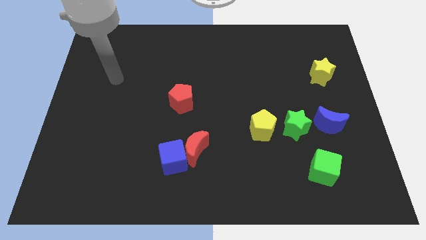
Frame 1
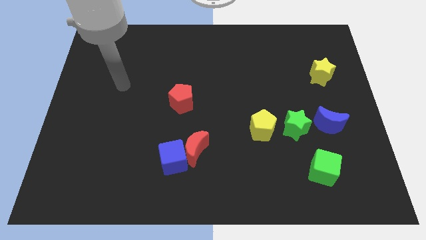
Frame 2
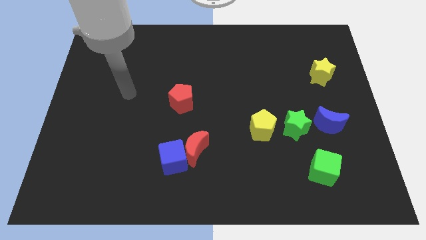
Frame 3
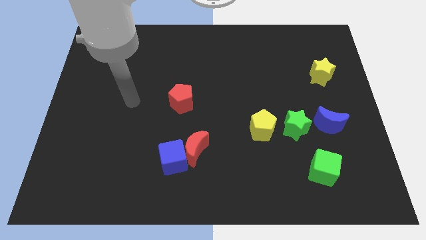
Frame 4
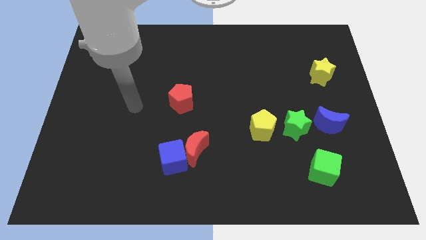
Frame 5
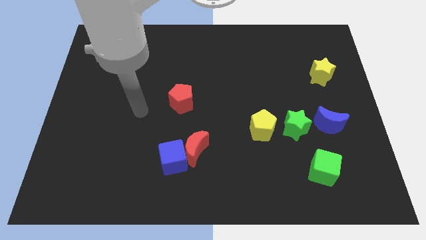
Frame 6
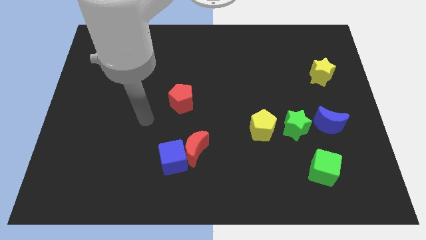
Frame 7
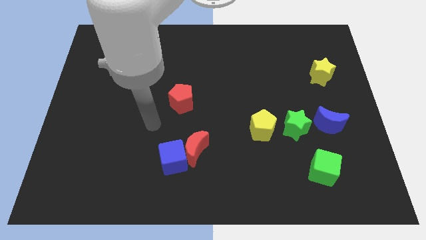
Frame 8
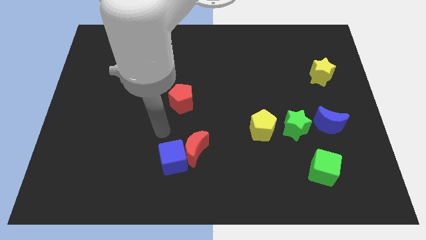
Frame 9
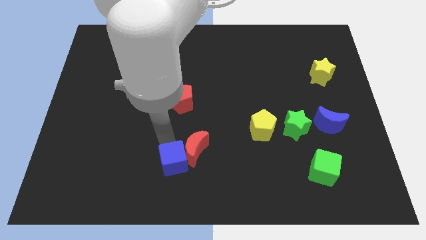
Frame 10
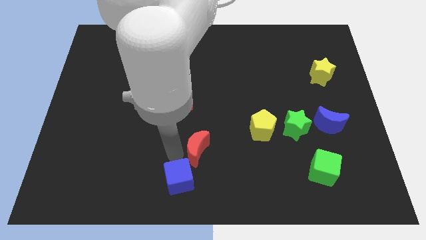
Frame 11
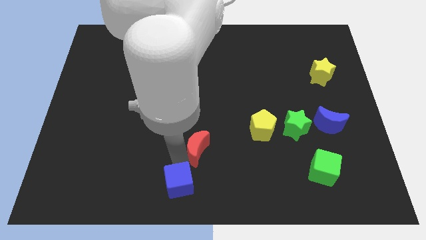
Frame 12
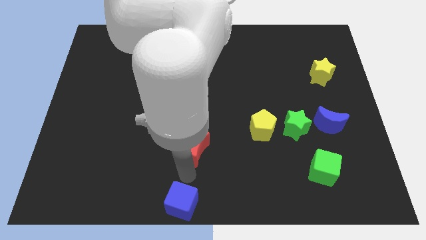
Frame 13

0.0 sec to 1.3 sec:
separate the red moon from the blue cube

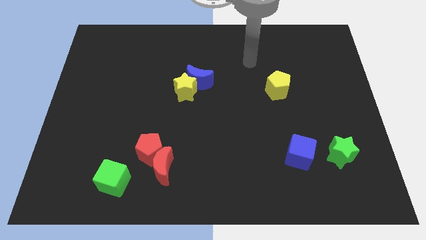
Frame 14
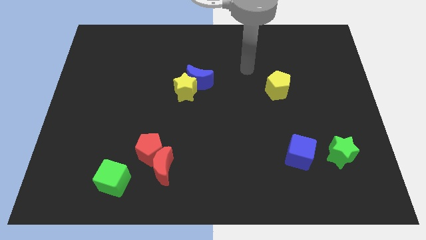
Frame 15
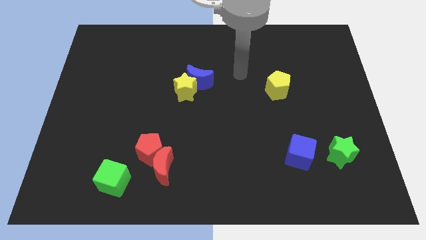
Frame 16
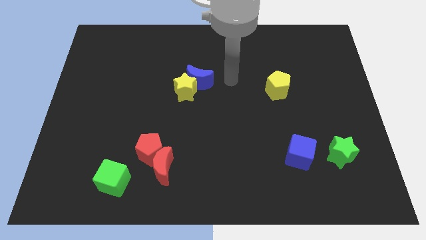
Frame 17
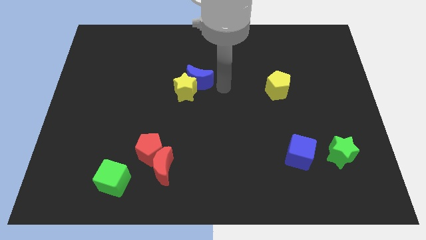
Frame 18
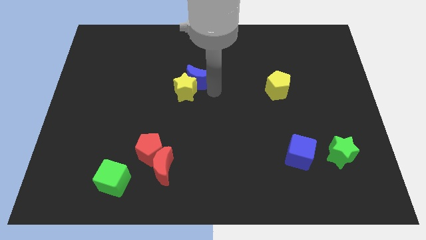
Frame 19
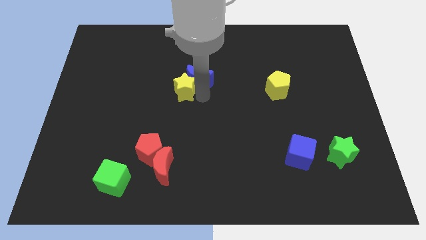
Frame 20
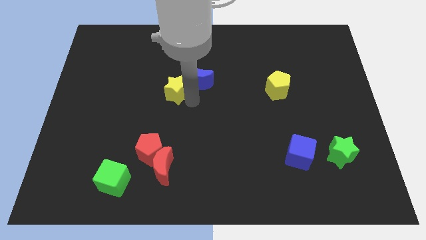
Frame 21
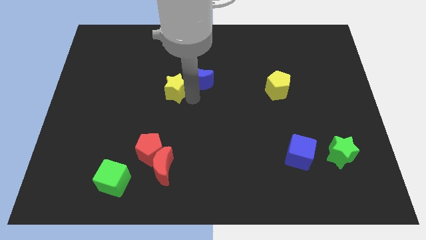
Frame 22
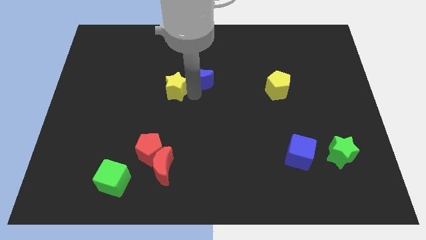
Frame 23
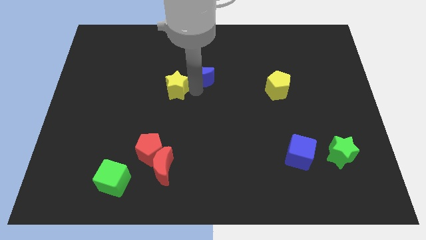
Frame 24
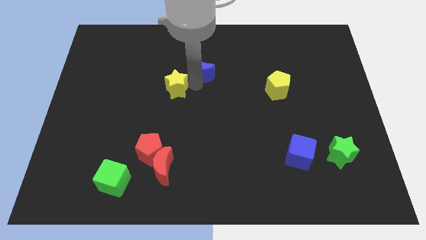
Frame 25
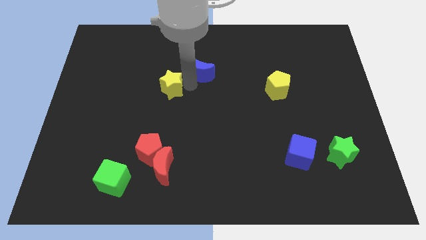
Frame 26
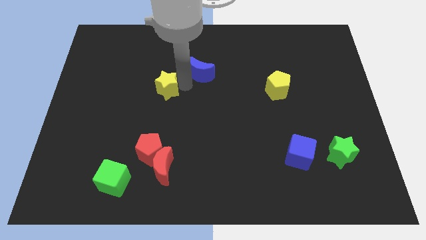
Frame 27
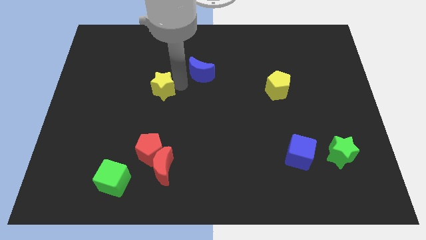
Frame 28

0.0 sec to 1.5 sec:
move the blue moon away from the yellow star

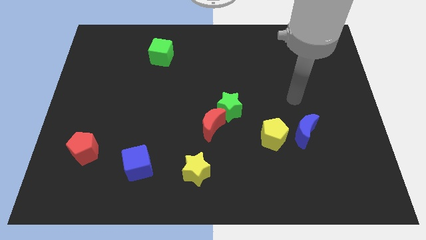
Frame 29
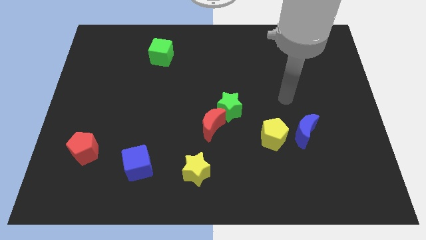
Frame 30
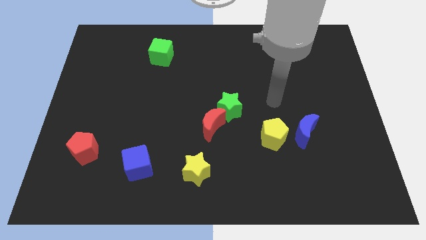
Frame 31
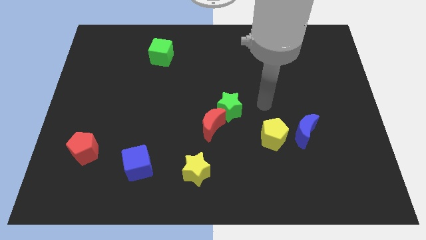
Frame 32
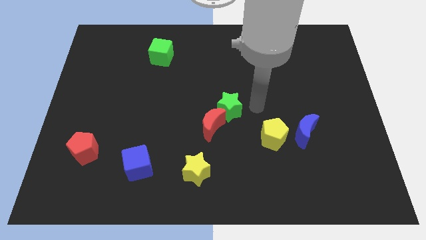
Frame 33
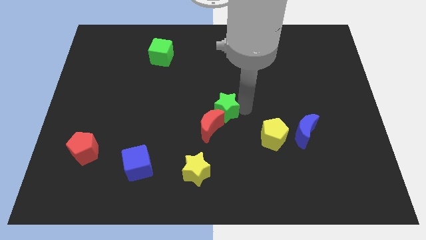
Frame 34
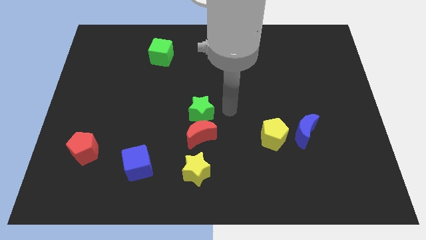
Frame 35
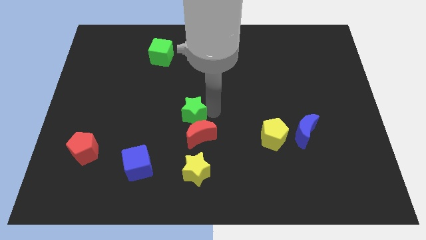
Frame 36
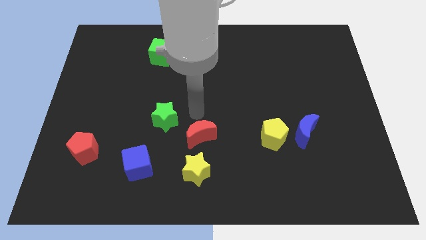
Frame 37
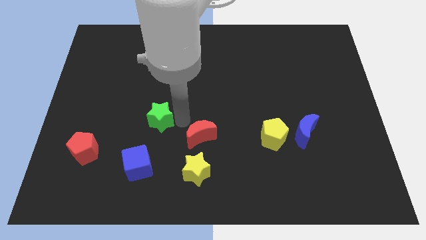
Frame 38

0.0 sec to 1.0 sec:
pull the red moon apart from the green star

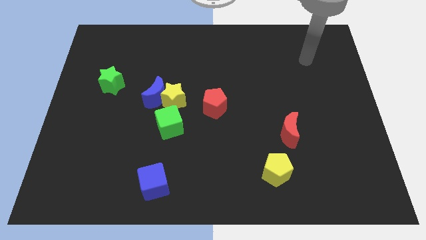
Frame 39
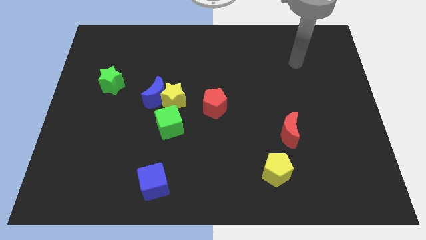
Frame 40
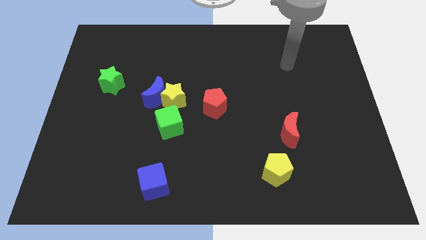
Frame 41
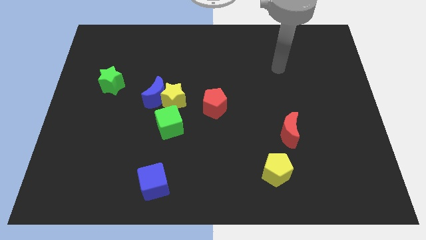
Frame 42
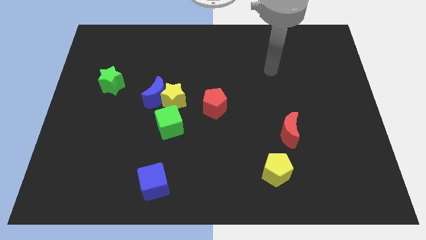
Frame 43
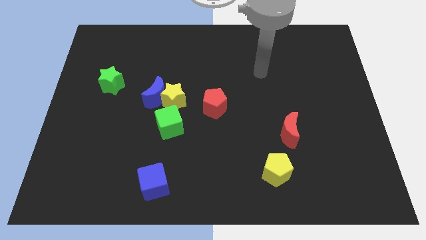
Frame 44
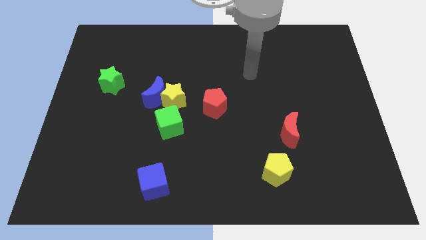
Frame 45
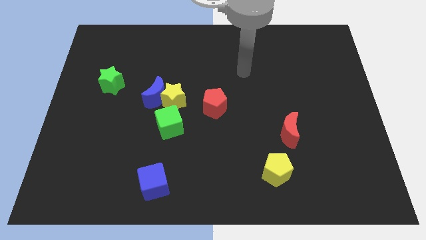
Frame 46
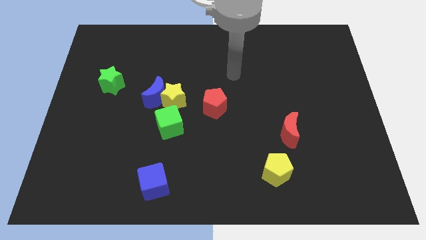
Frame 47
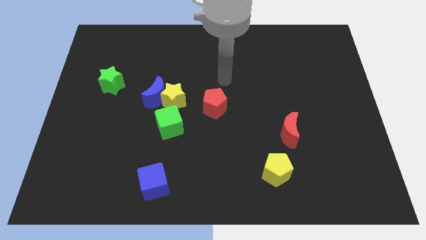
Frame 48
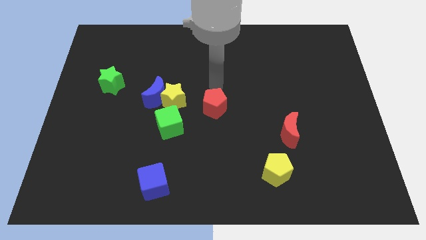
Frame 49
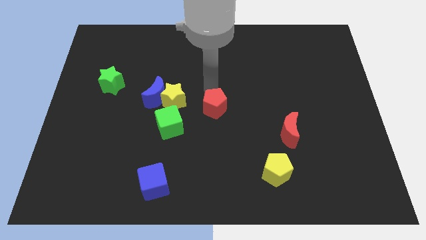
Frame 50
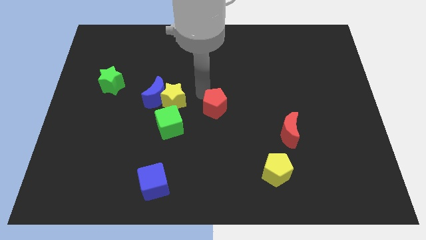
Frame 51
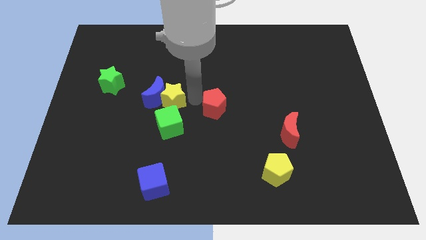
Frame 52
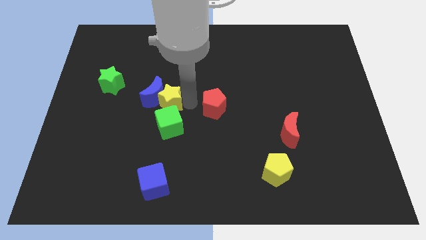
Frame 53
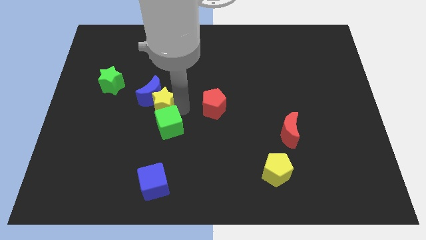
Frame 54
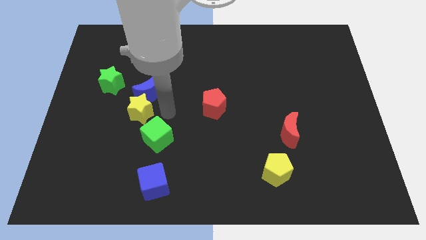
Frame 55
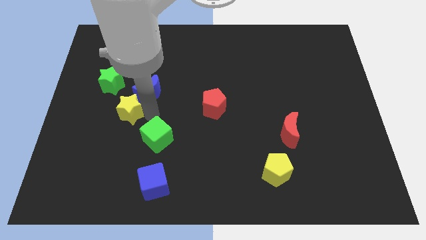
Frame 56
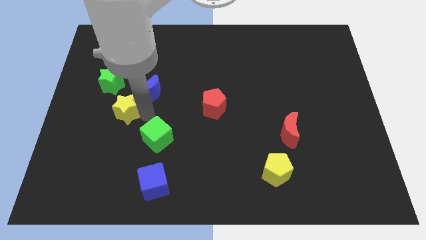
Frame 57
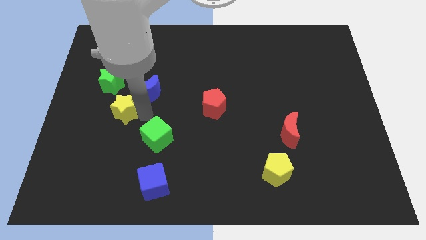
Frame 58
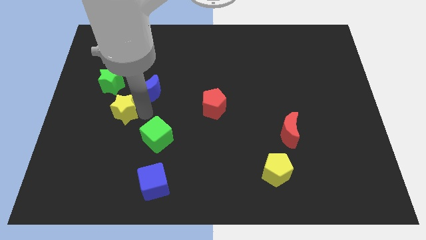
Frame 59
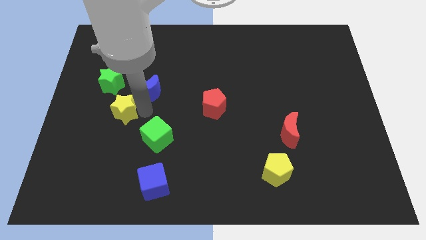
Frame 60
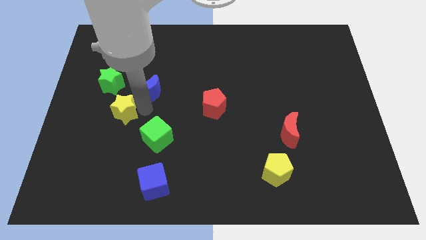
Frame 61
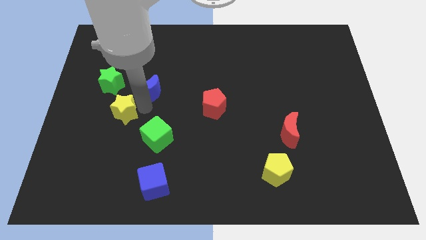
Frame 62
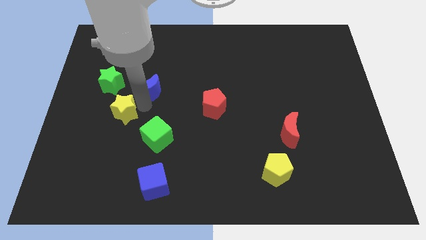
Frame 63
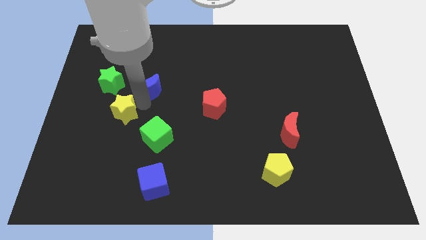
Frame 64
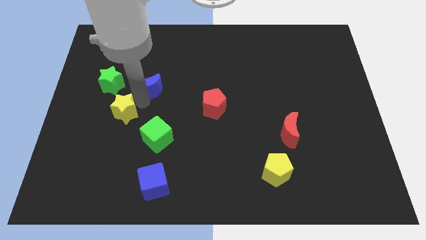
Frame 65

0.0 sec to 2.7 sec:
pull the blue moon apart from the yellow star and green cube

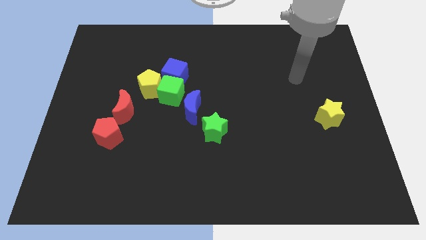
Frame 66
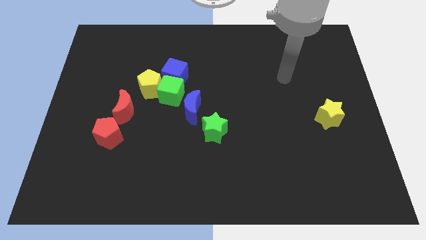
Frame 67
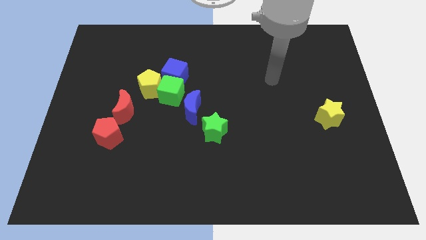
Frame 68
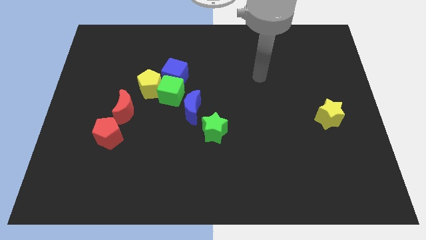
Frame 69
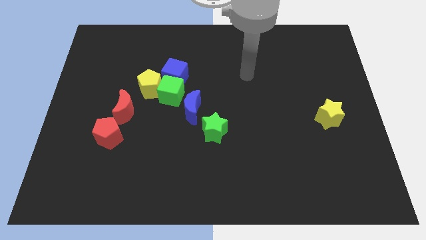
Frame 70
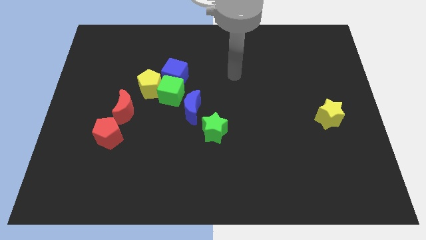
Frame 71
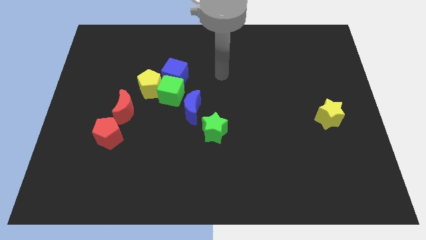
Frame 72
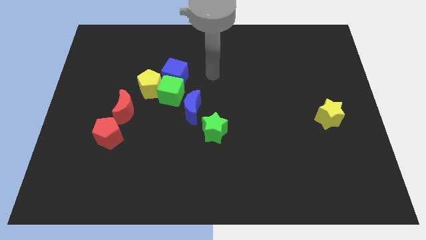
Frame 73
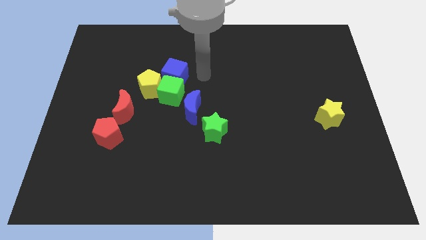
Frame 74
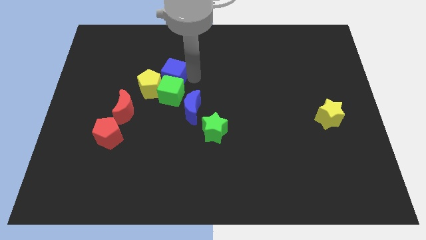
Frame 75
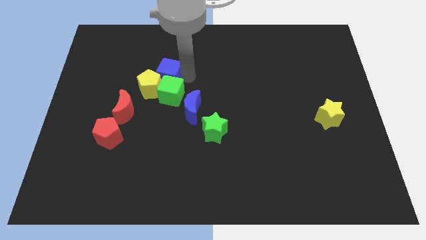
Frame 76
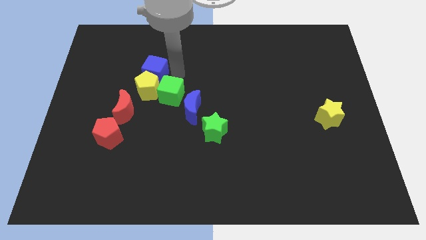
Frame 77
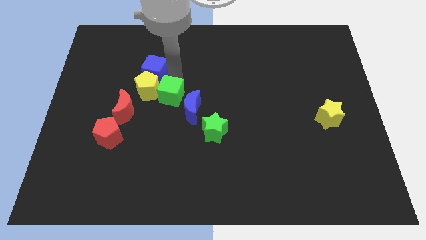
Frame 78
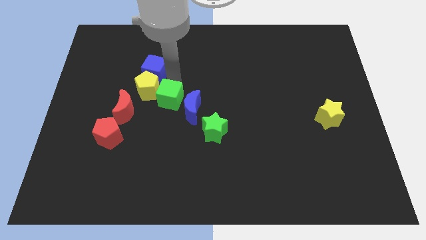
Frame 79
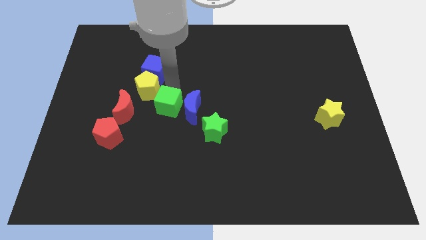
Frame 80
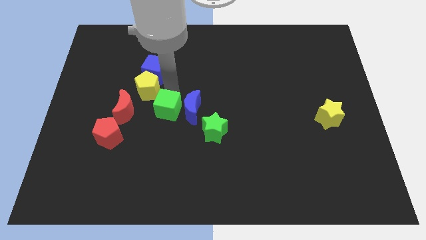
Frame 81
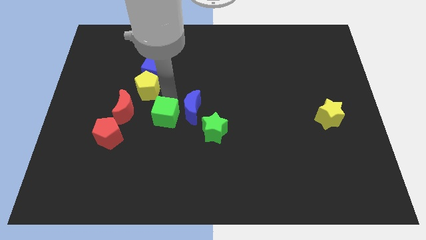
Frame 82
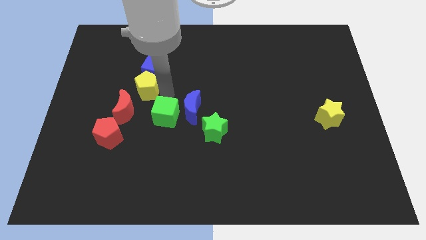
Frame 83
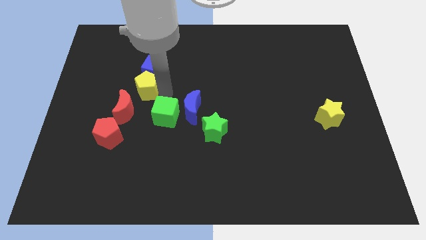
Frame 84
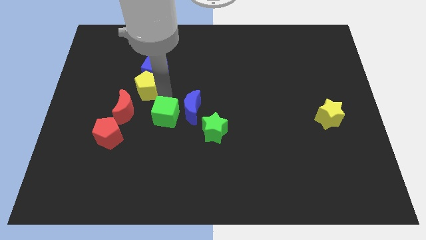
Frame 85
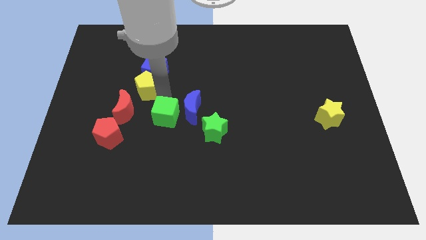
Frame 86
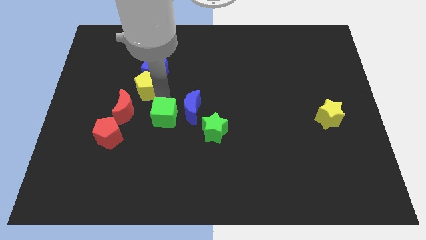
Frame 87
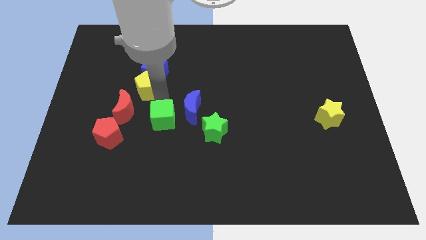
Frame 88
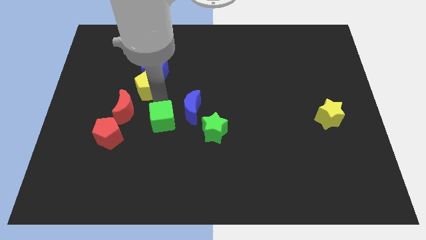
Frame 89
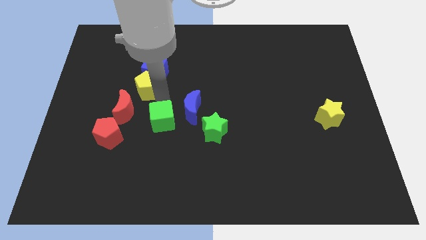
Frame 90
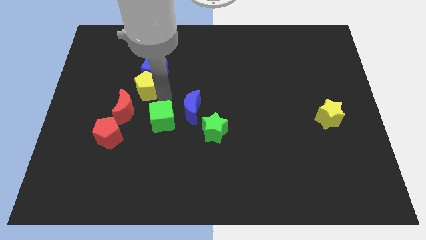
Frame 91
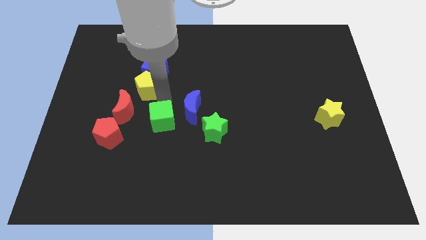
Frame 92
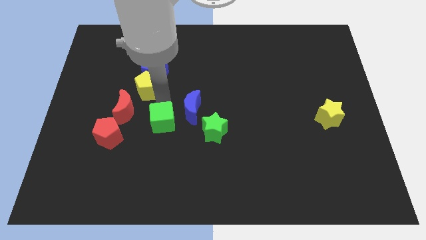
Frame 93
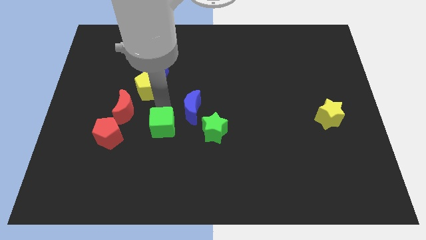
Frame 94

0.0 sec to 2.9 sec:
move the green cube away from the blue cube, yellow pentagon, and blue moon
